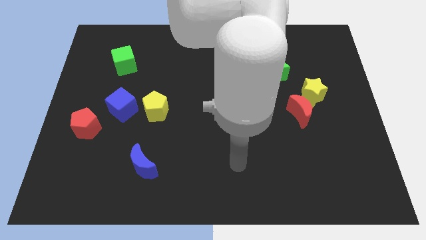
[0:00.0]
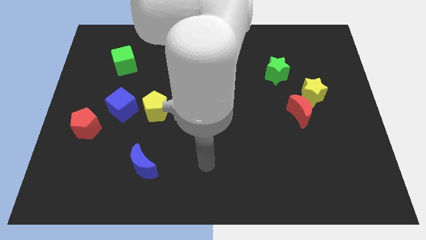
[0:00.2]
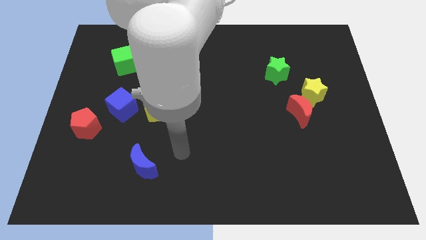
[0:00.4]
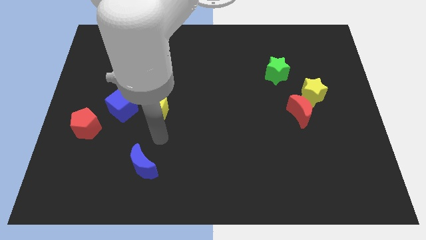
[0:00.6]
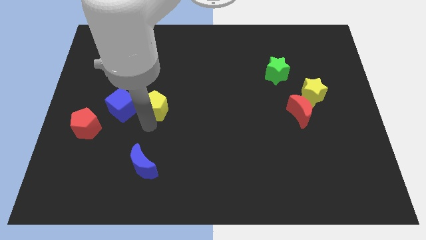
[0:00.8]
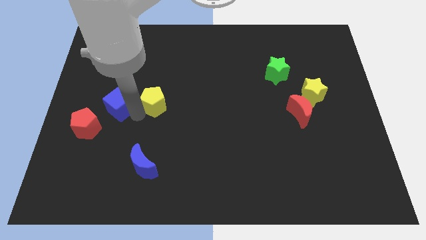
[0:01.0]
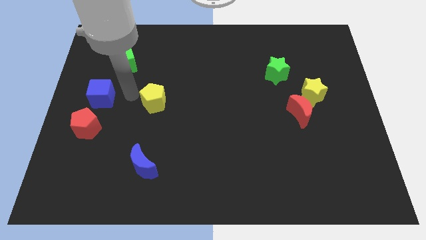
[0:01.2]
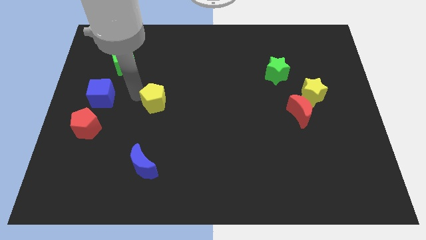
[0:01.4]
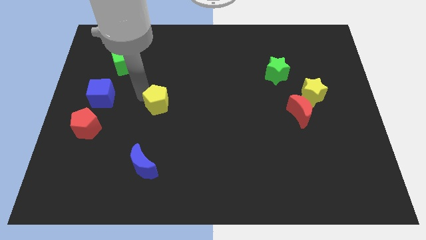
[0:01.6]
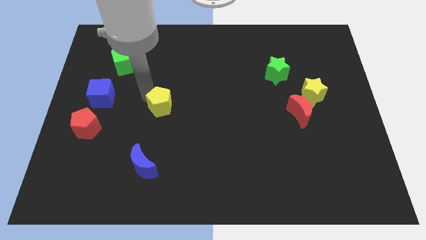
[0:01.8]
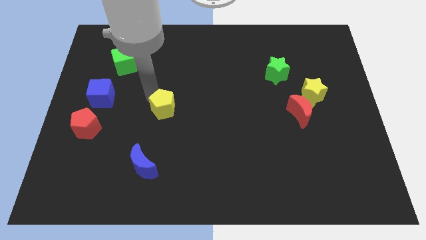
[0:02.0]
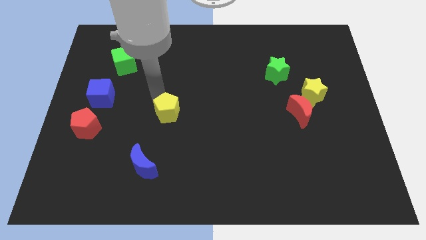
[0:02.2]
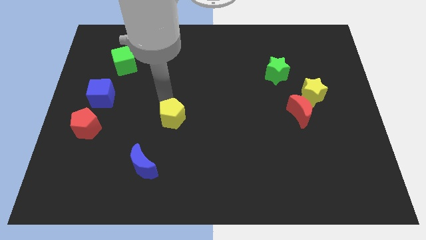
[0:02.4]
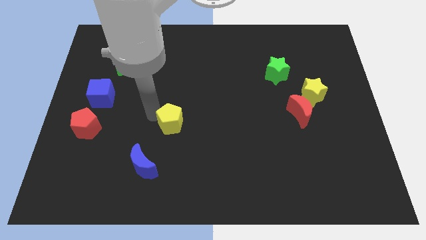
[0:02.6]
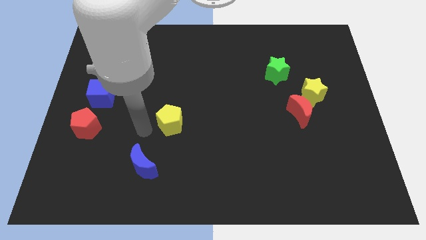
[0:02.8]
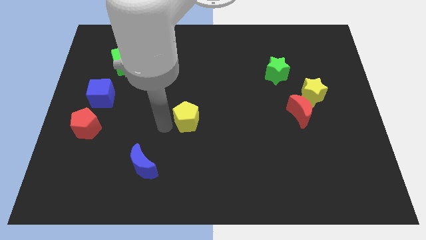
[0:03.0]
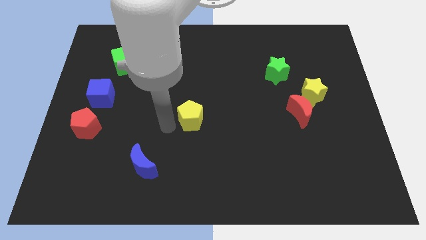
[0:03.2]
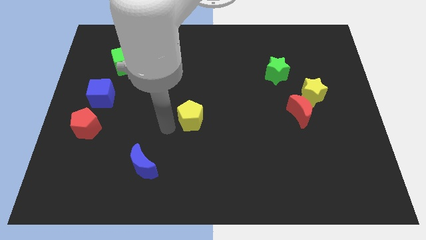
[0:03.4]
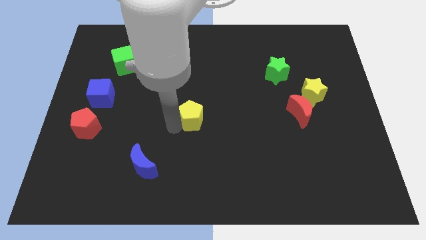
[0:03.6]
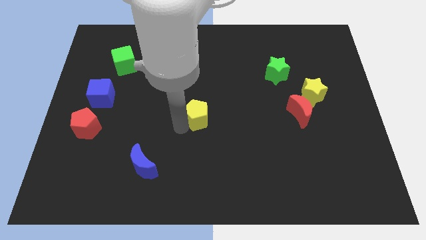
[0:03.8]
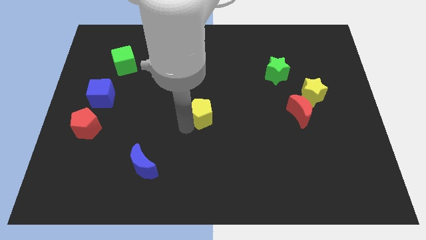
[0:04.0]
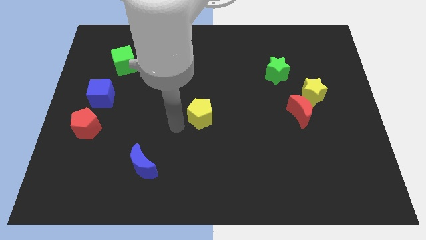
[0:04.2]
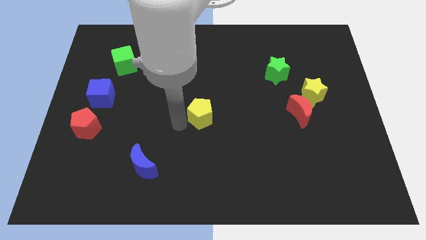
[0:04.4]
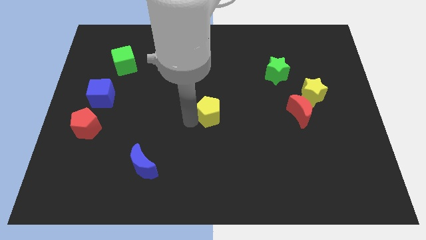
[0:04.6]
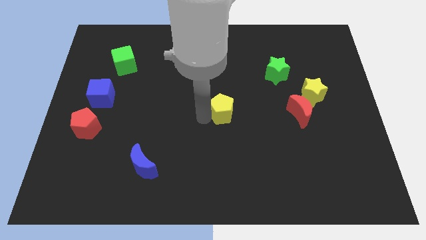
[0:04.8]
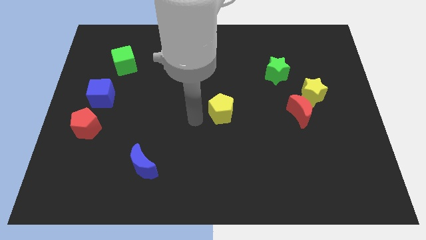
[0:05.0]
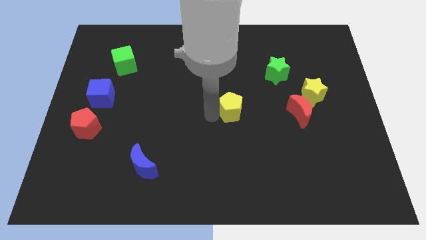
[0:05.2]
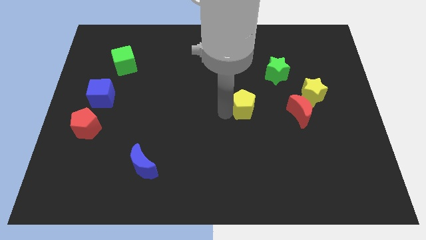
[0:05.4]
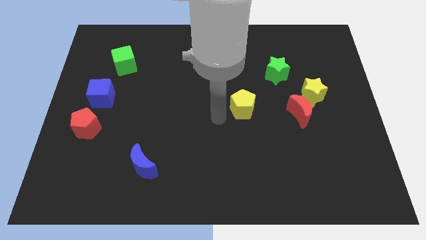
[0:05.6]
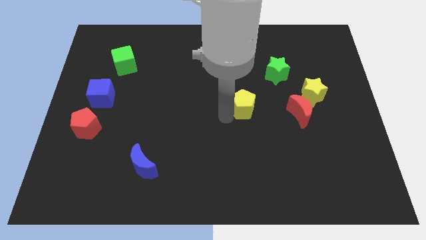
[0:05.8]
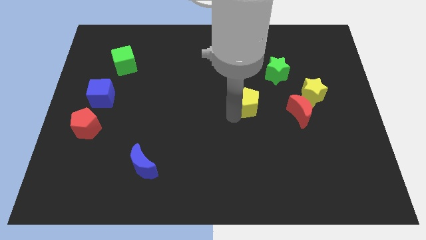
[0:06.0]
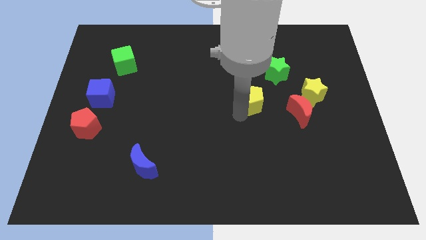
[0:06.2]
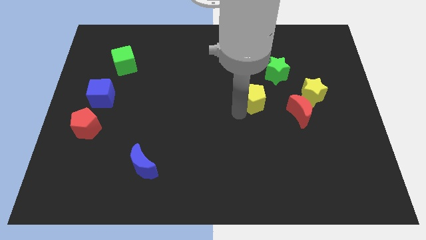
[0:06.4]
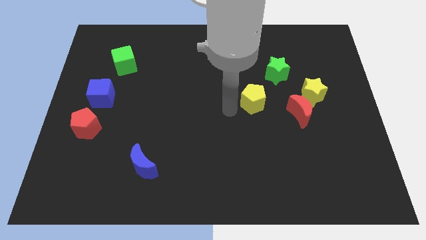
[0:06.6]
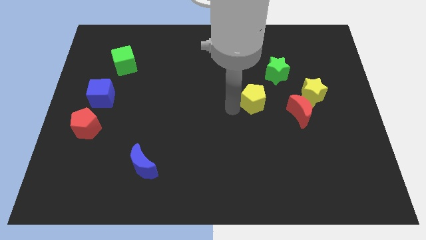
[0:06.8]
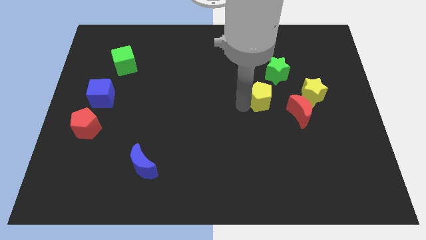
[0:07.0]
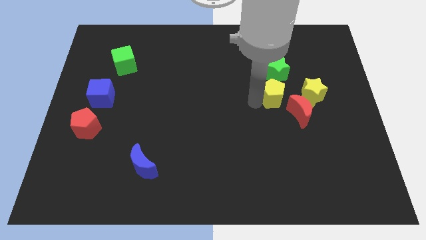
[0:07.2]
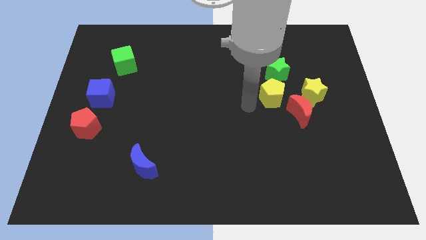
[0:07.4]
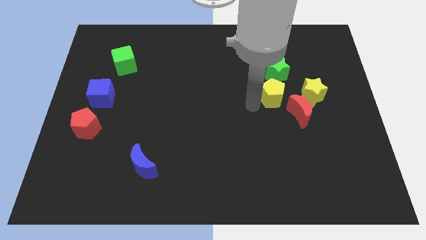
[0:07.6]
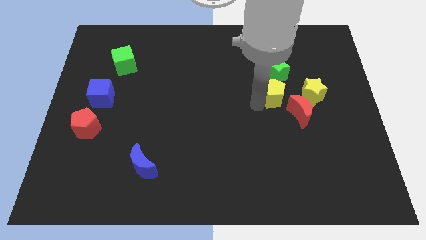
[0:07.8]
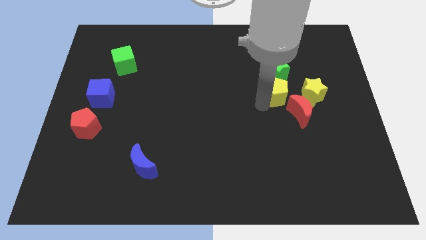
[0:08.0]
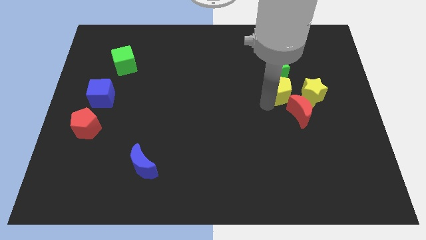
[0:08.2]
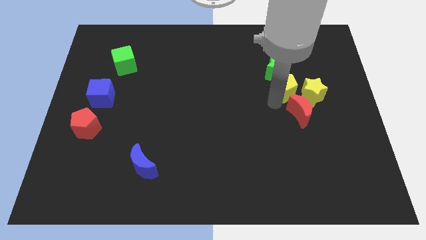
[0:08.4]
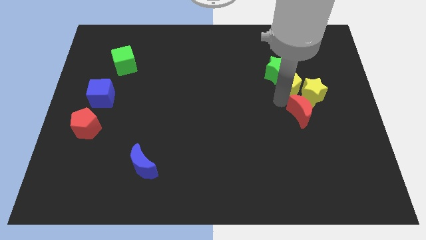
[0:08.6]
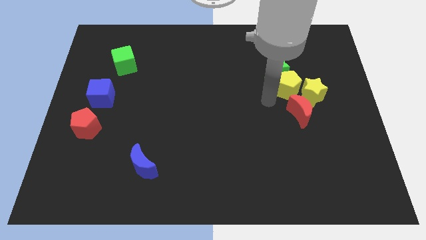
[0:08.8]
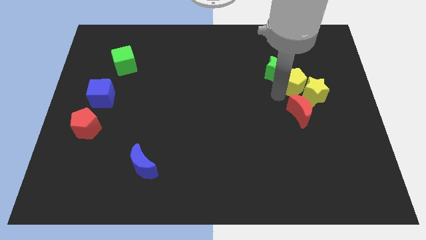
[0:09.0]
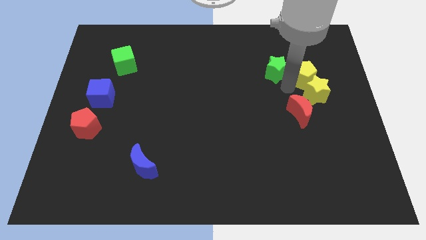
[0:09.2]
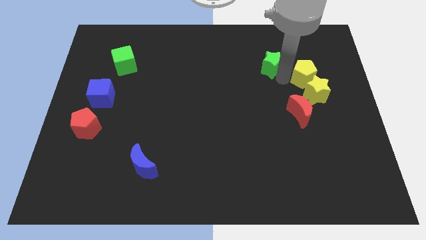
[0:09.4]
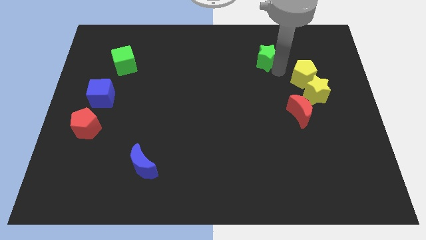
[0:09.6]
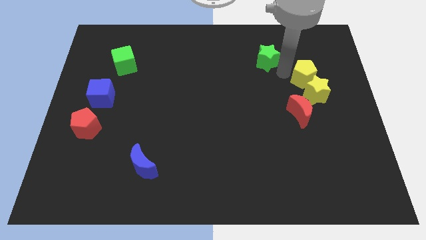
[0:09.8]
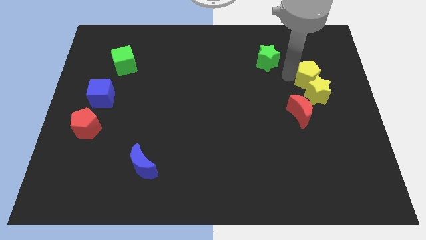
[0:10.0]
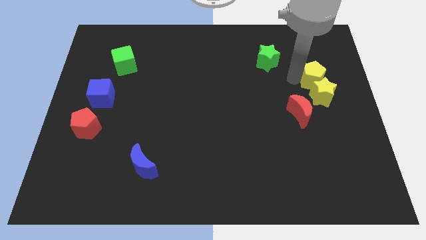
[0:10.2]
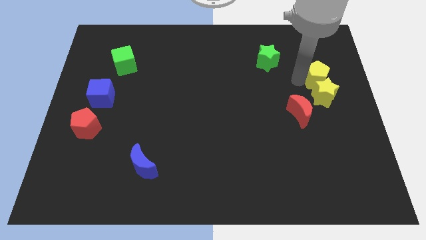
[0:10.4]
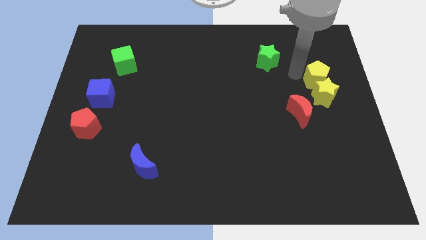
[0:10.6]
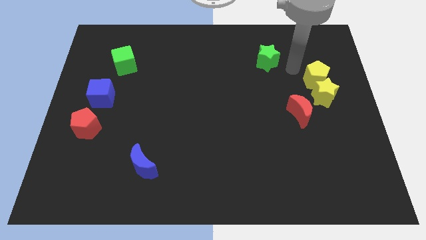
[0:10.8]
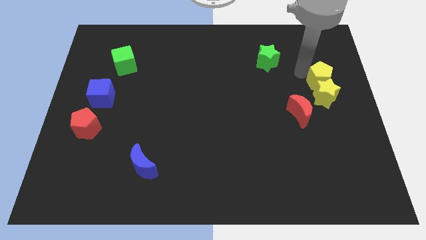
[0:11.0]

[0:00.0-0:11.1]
move the yellow pentagon to the right side
